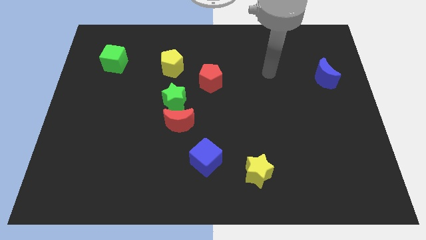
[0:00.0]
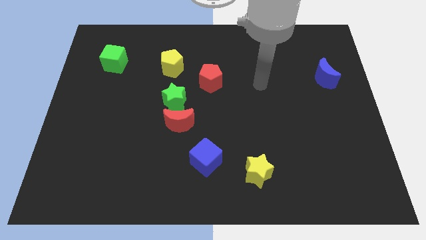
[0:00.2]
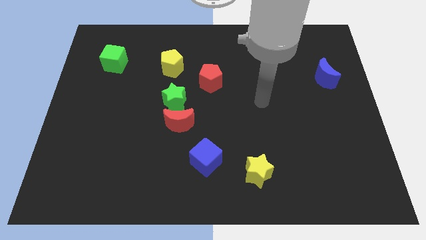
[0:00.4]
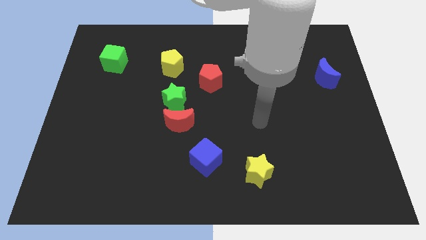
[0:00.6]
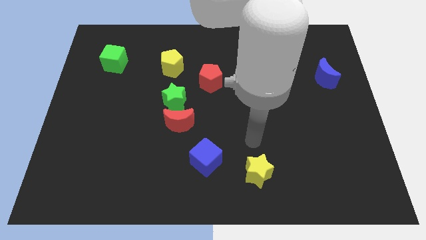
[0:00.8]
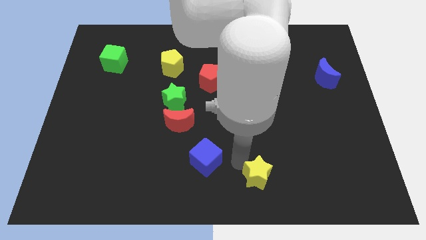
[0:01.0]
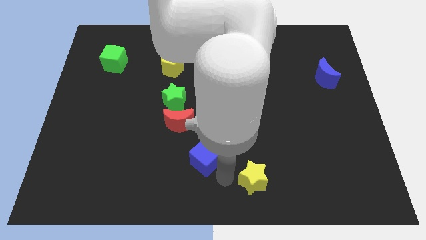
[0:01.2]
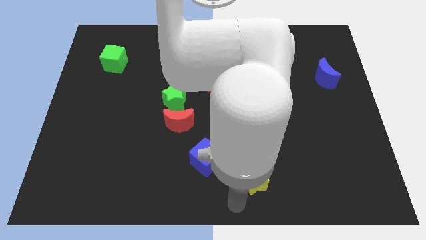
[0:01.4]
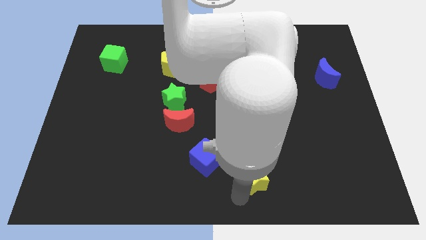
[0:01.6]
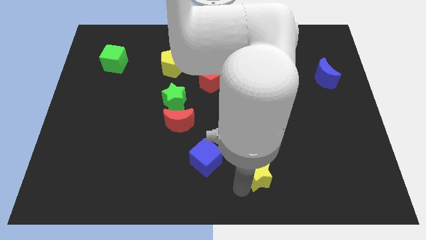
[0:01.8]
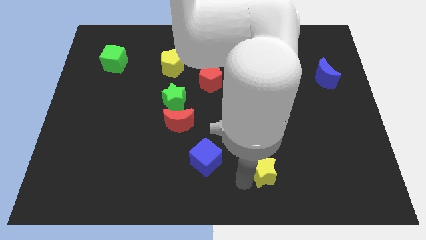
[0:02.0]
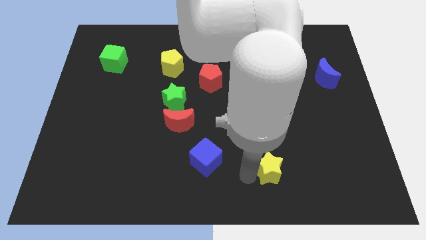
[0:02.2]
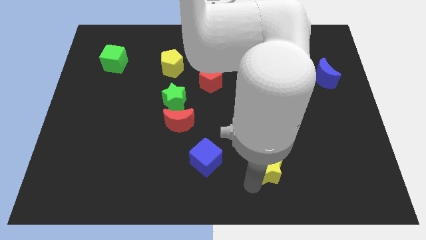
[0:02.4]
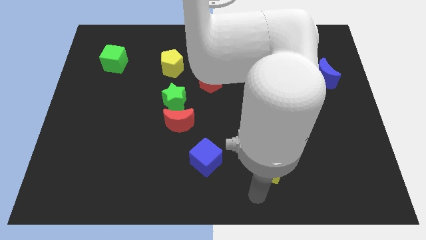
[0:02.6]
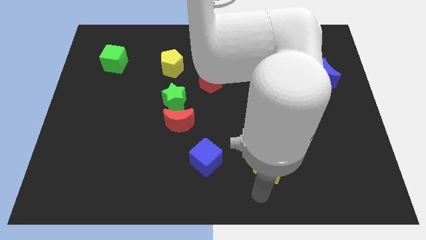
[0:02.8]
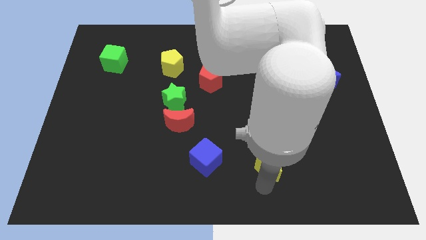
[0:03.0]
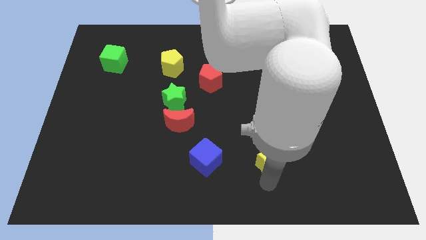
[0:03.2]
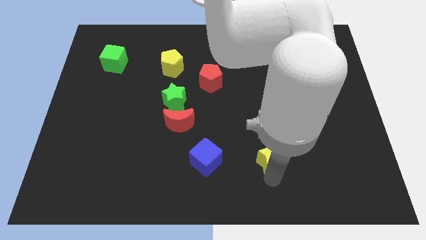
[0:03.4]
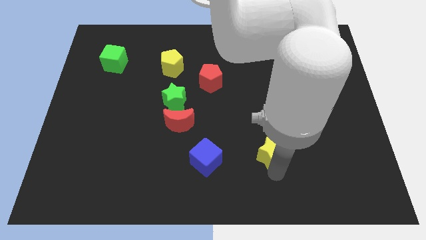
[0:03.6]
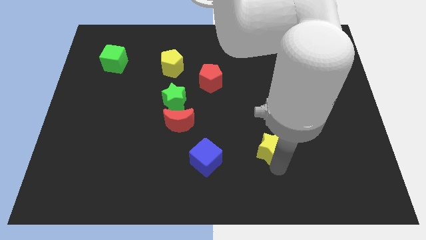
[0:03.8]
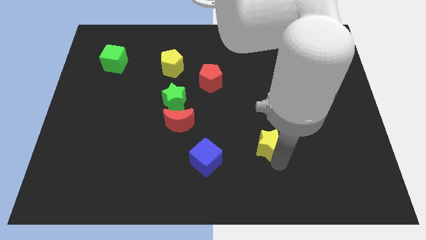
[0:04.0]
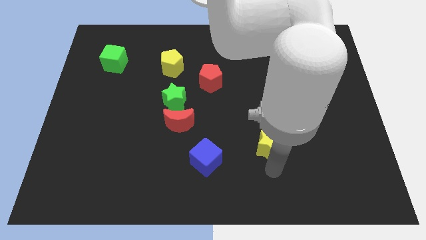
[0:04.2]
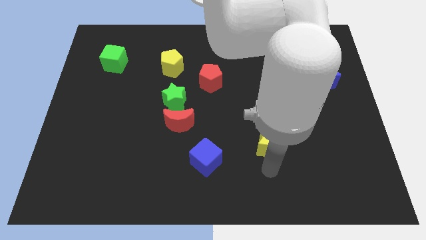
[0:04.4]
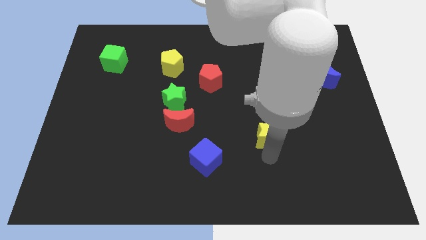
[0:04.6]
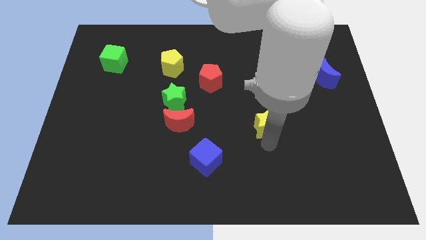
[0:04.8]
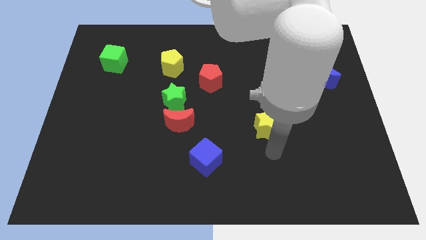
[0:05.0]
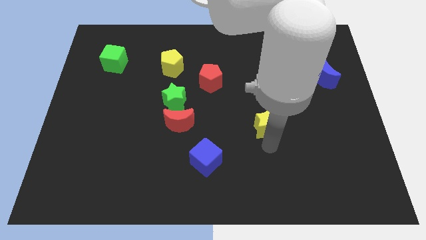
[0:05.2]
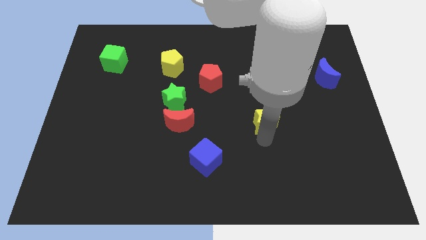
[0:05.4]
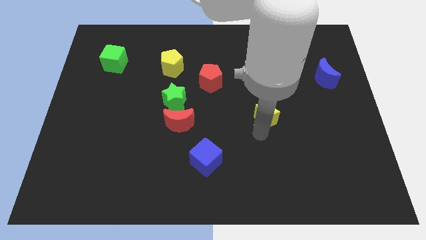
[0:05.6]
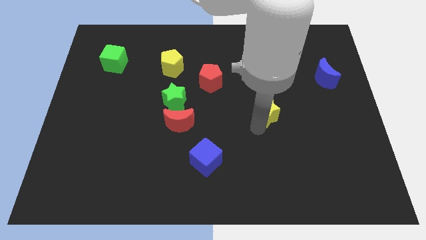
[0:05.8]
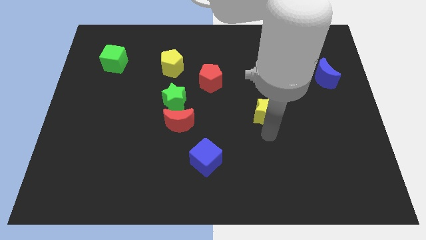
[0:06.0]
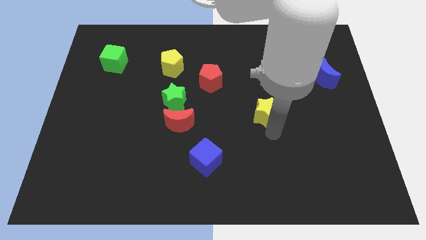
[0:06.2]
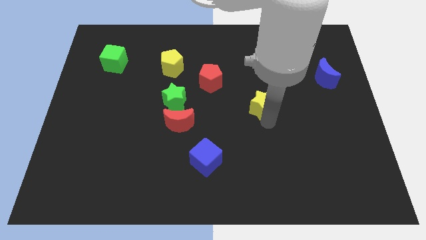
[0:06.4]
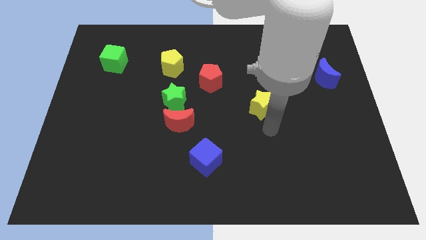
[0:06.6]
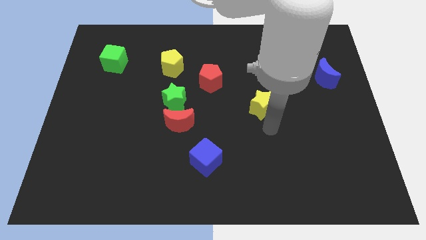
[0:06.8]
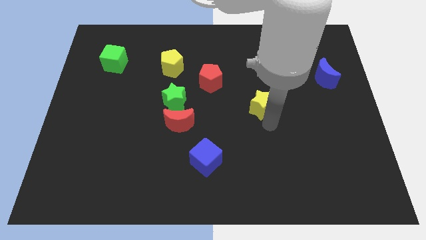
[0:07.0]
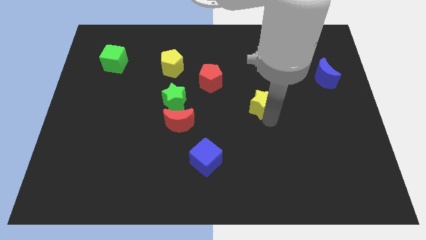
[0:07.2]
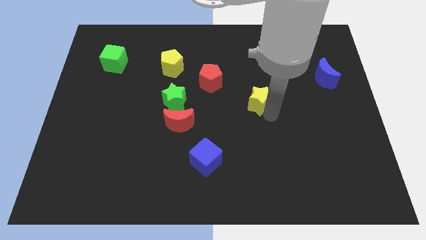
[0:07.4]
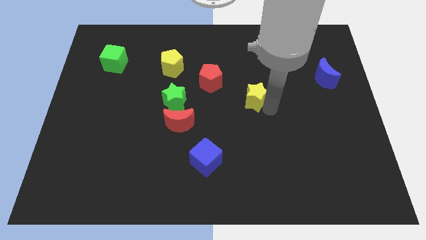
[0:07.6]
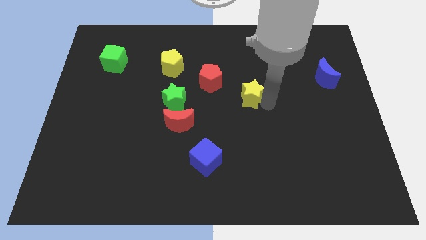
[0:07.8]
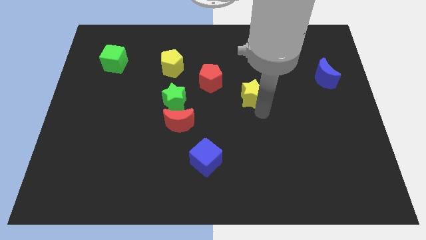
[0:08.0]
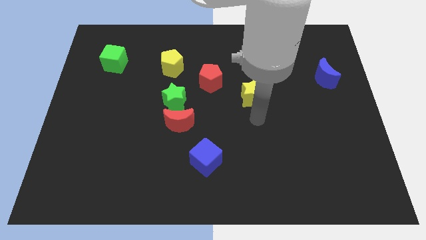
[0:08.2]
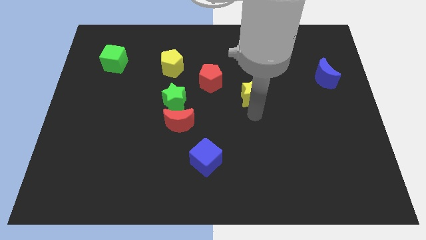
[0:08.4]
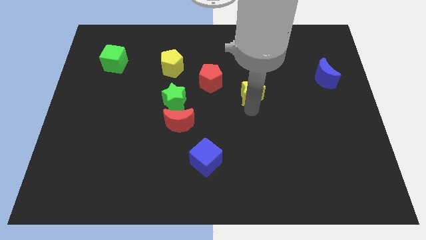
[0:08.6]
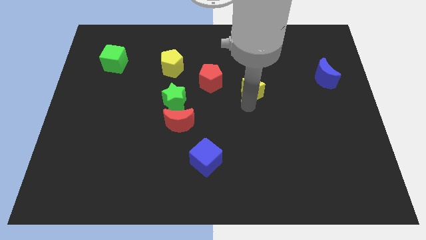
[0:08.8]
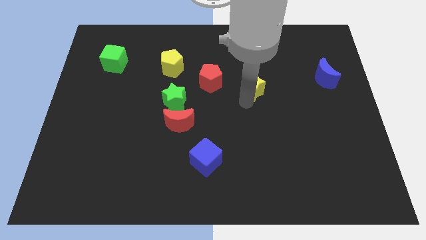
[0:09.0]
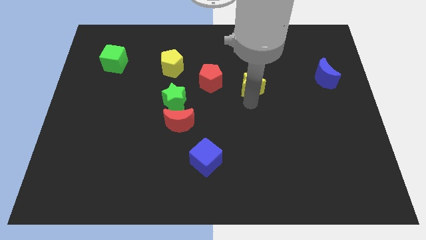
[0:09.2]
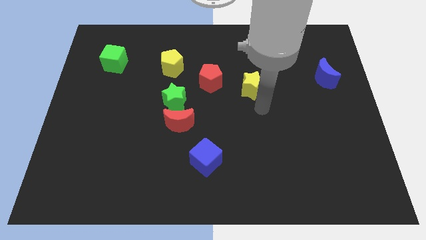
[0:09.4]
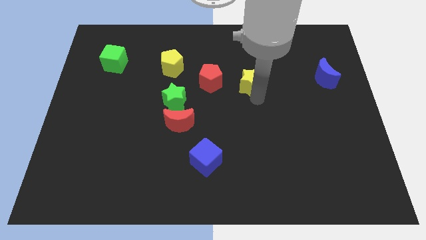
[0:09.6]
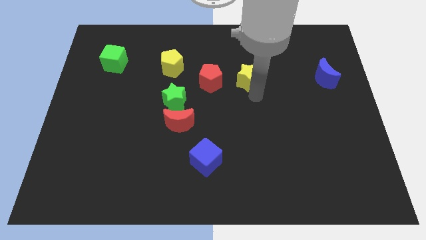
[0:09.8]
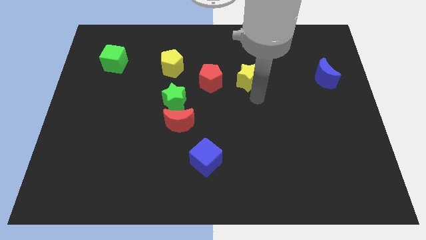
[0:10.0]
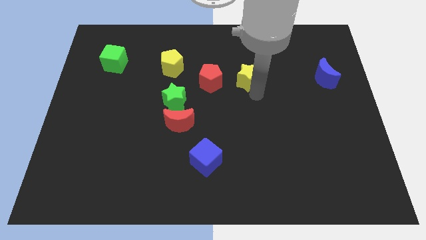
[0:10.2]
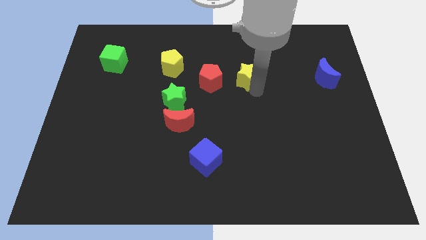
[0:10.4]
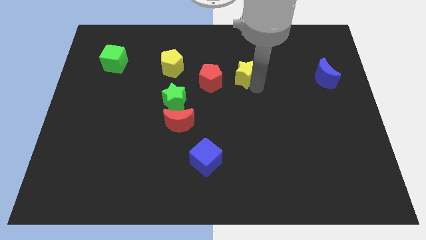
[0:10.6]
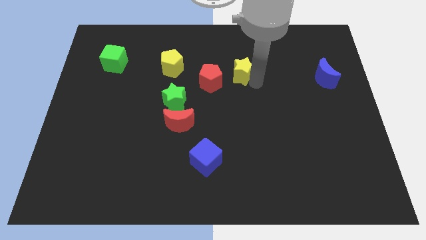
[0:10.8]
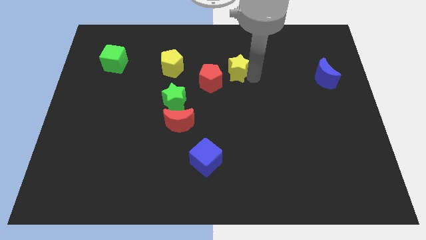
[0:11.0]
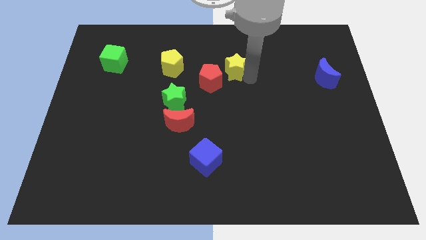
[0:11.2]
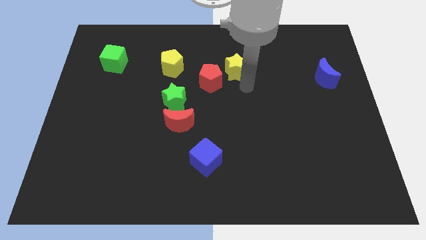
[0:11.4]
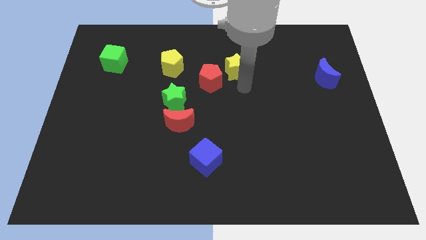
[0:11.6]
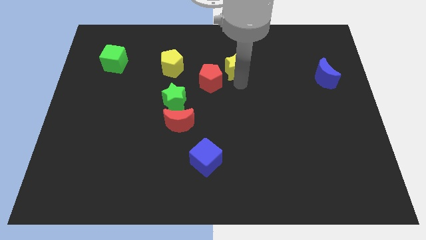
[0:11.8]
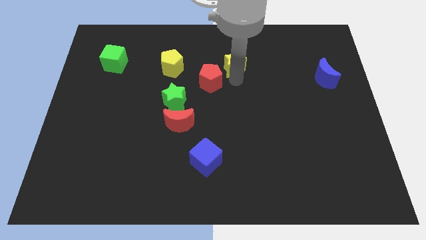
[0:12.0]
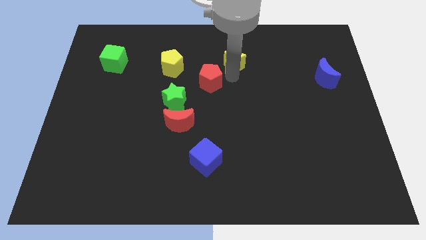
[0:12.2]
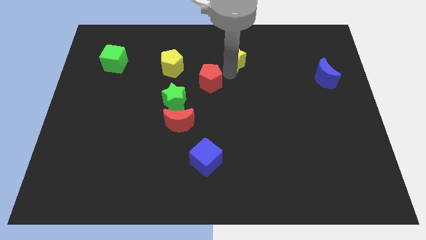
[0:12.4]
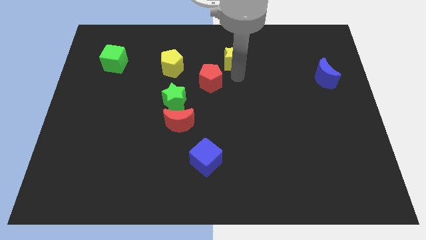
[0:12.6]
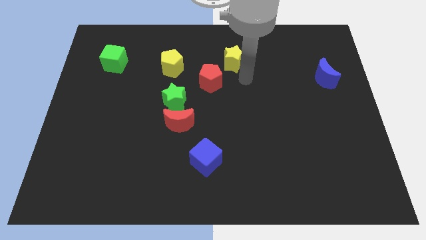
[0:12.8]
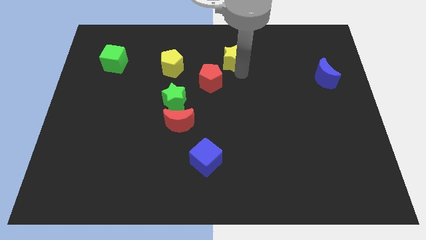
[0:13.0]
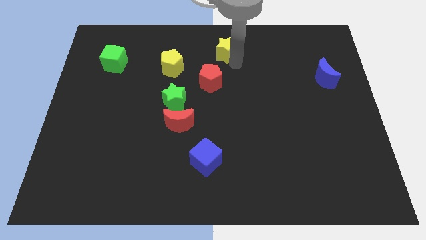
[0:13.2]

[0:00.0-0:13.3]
push the yellow star to the top
